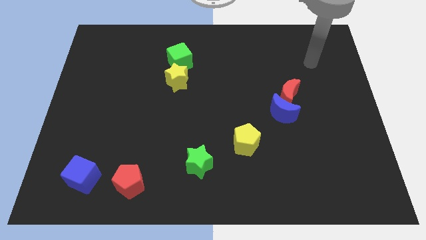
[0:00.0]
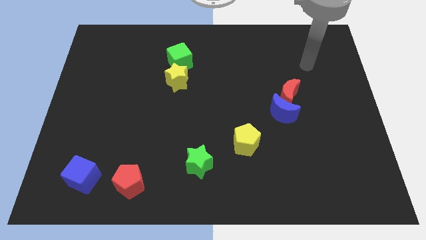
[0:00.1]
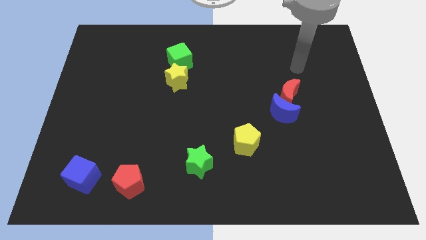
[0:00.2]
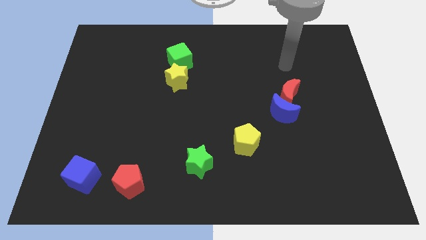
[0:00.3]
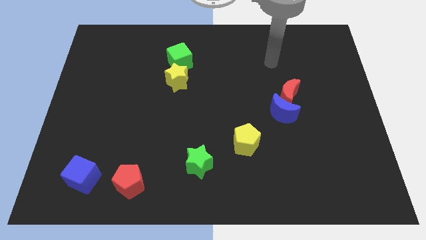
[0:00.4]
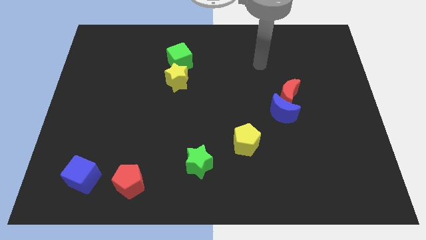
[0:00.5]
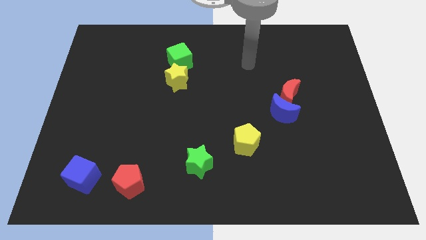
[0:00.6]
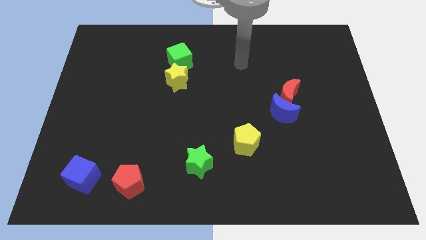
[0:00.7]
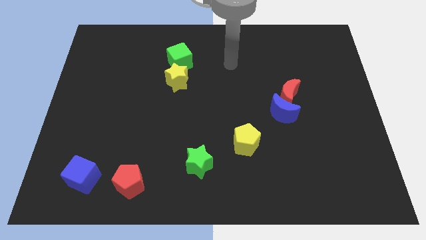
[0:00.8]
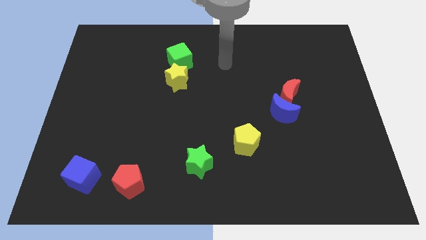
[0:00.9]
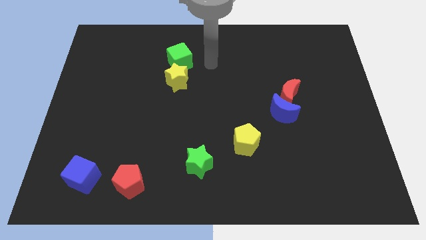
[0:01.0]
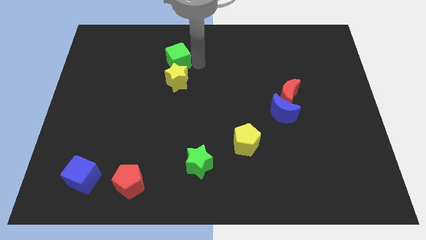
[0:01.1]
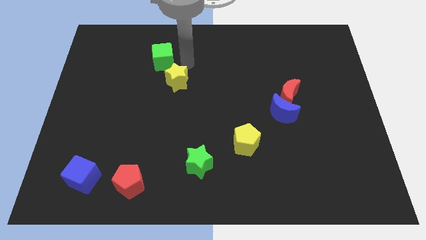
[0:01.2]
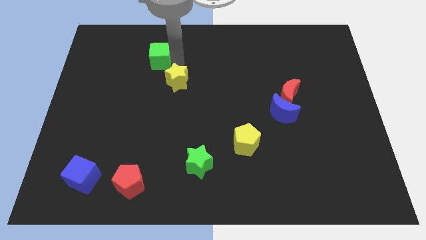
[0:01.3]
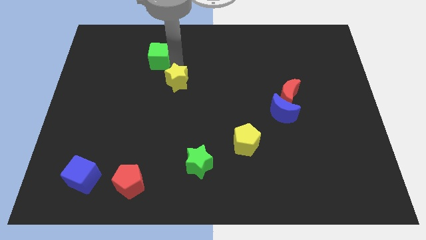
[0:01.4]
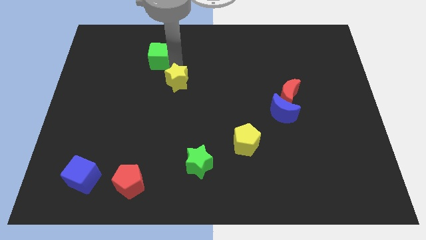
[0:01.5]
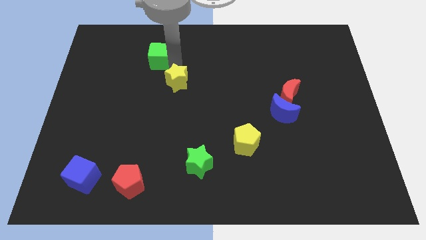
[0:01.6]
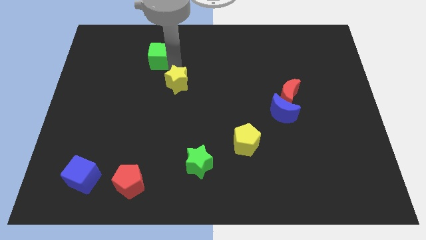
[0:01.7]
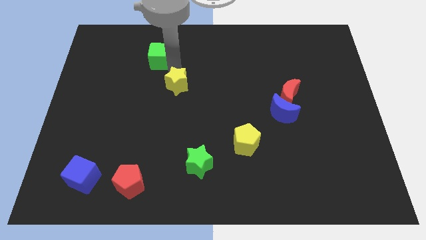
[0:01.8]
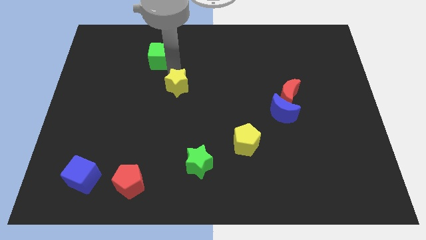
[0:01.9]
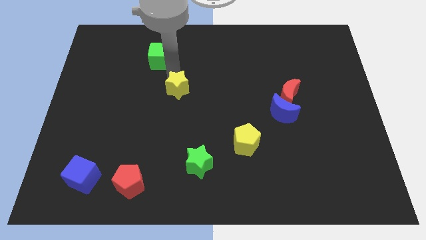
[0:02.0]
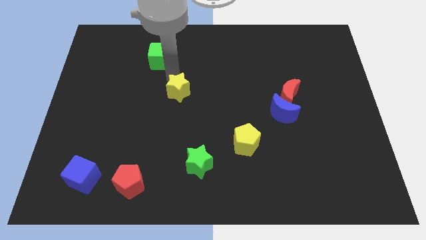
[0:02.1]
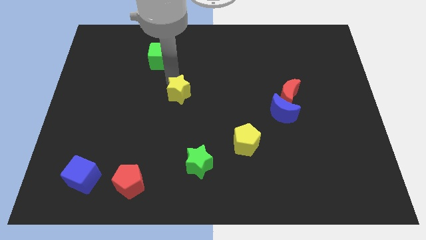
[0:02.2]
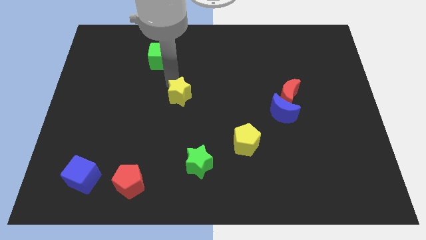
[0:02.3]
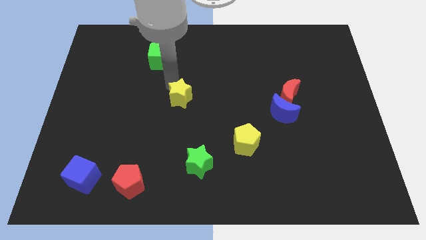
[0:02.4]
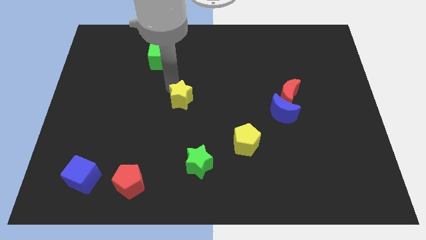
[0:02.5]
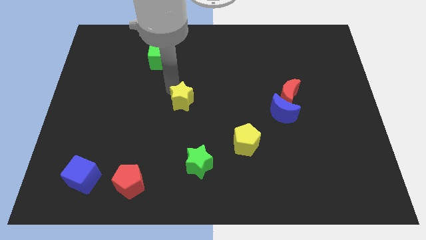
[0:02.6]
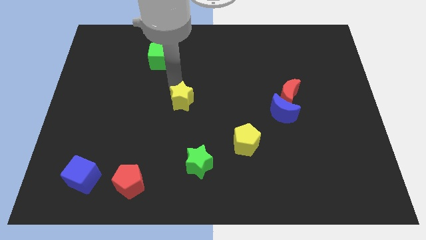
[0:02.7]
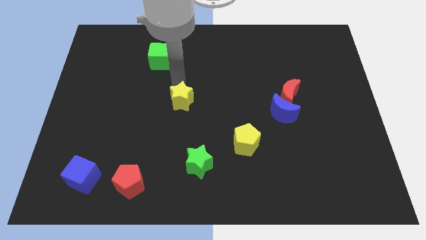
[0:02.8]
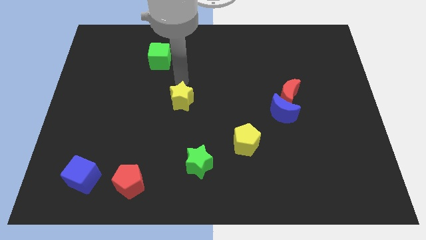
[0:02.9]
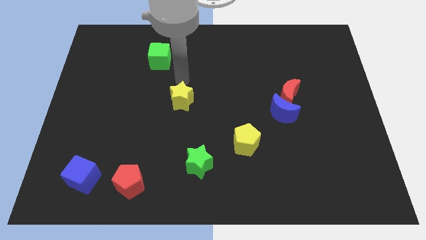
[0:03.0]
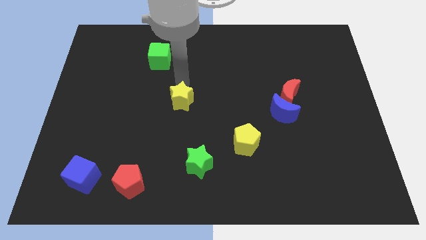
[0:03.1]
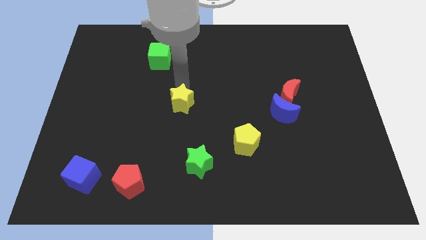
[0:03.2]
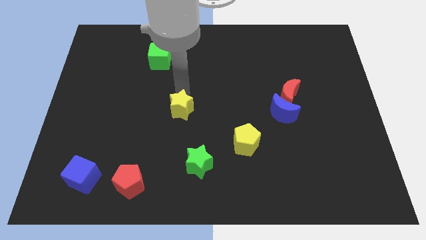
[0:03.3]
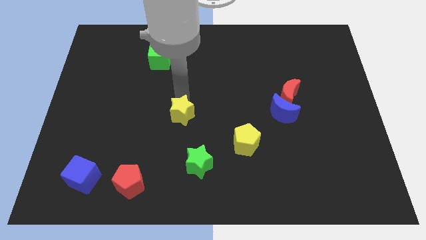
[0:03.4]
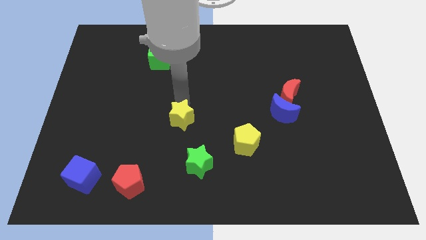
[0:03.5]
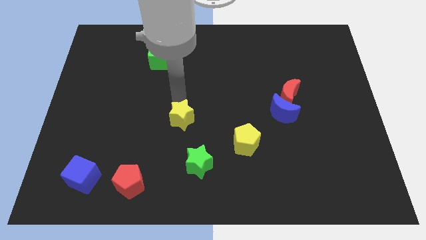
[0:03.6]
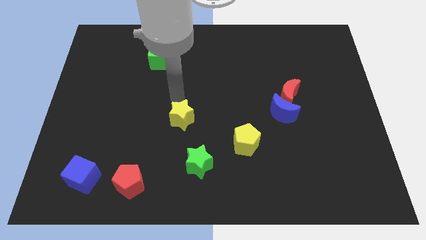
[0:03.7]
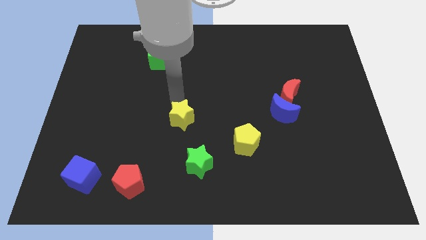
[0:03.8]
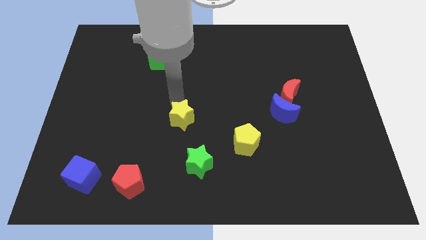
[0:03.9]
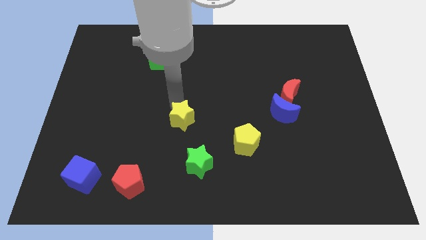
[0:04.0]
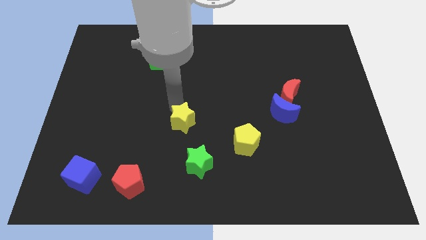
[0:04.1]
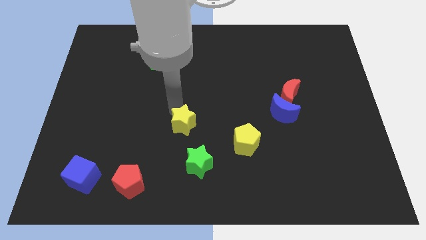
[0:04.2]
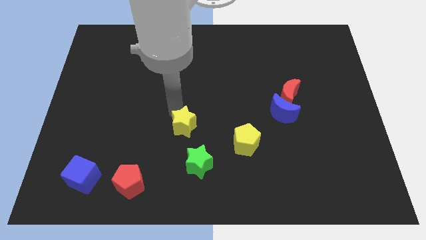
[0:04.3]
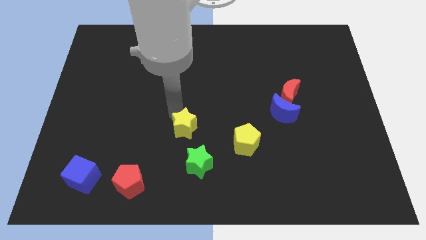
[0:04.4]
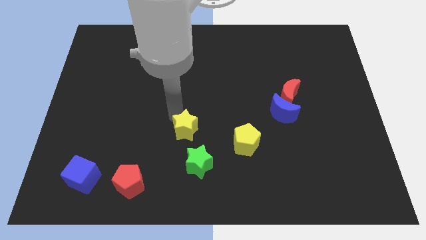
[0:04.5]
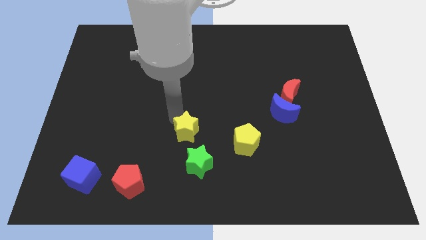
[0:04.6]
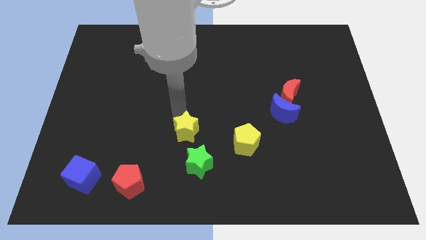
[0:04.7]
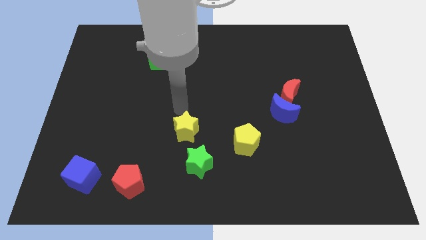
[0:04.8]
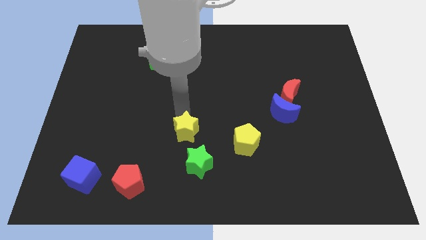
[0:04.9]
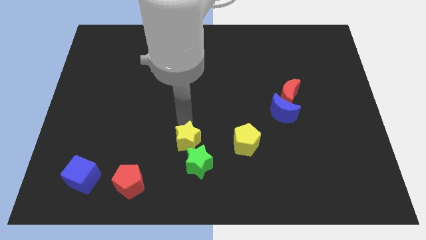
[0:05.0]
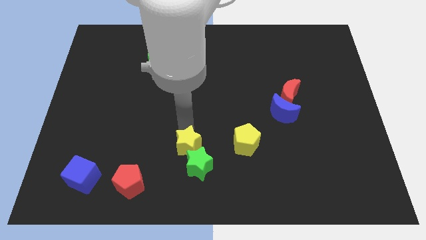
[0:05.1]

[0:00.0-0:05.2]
push the yellow star next to the green star

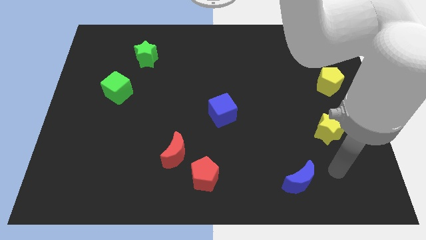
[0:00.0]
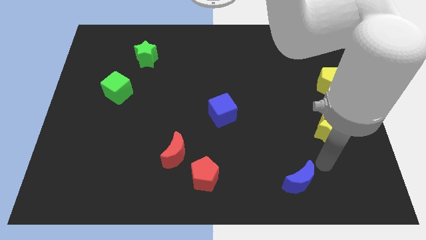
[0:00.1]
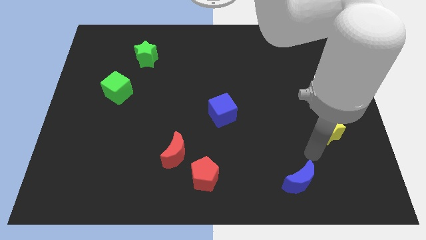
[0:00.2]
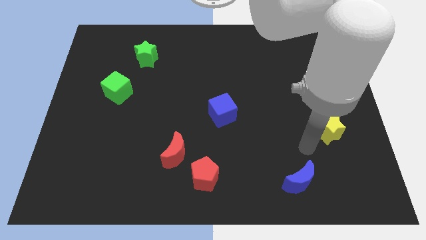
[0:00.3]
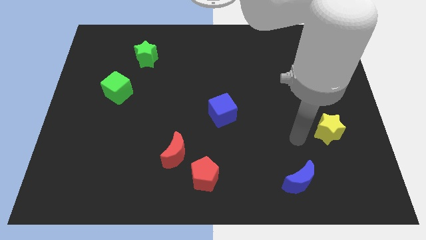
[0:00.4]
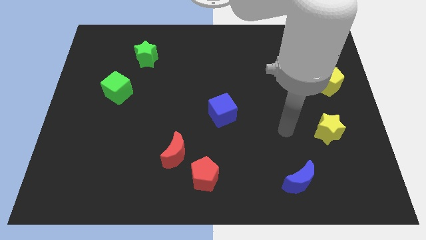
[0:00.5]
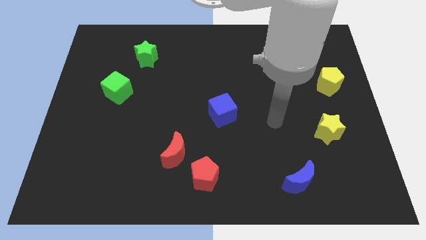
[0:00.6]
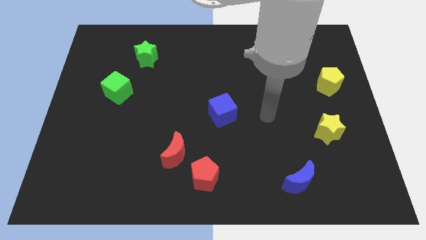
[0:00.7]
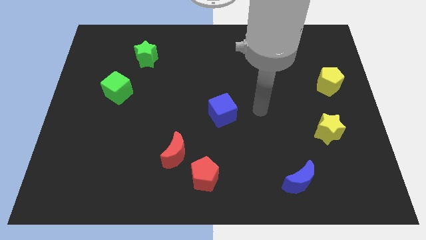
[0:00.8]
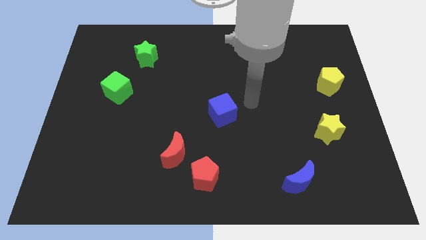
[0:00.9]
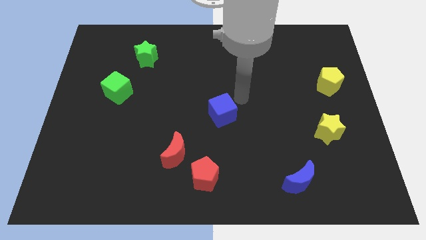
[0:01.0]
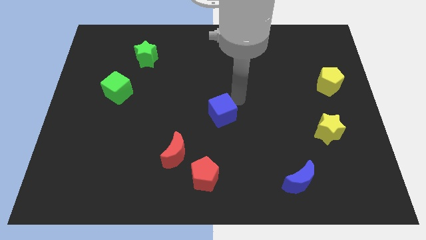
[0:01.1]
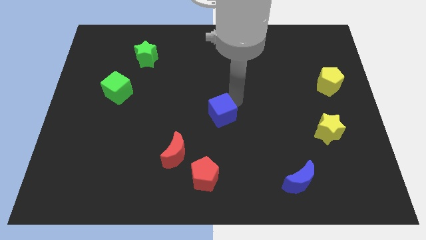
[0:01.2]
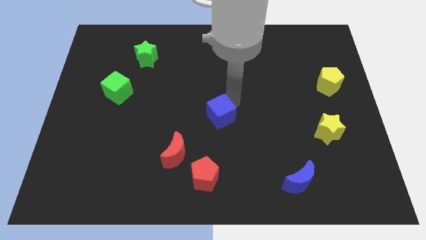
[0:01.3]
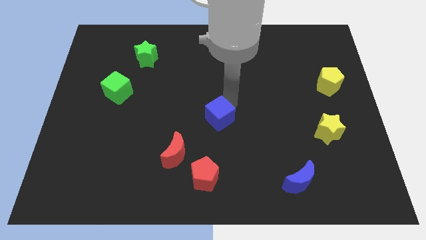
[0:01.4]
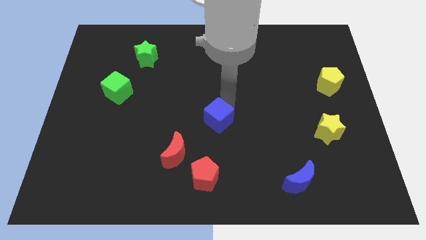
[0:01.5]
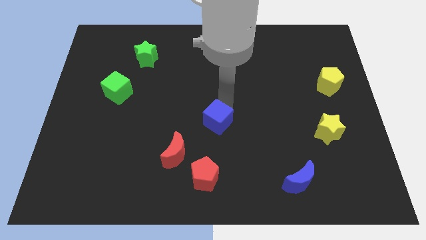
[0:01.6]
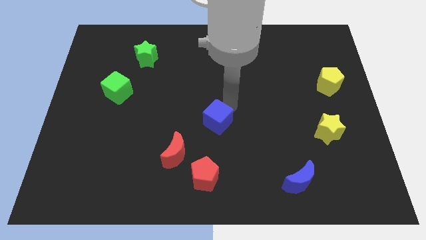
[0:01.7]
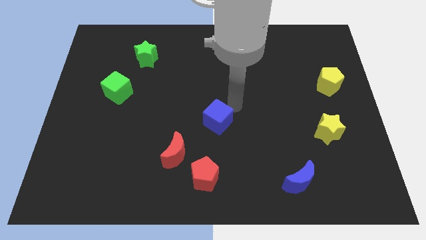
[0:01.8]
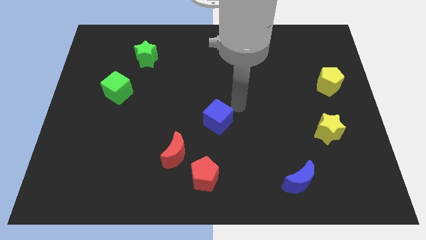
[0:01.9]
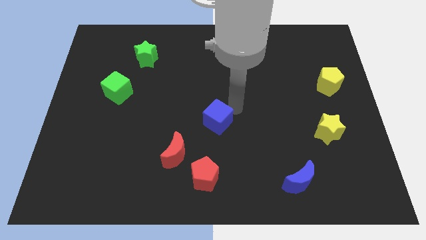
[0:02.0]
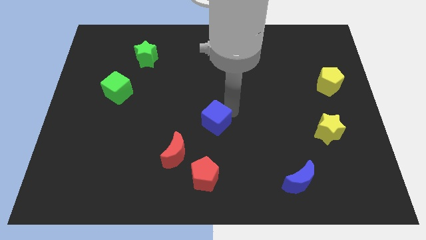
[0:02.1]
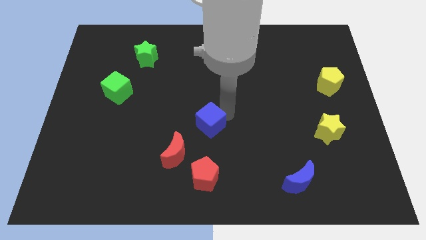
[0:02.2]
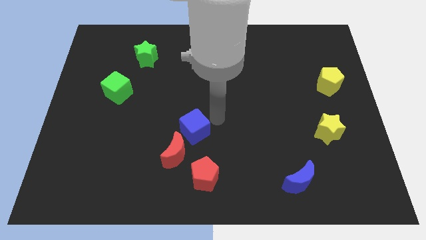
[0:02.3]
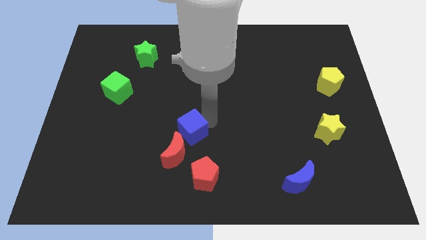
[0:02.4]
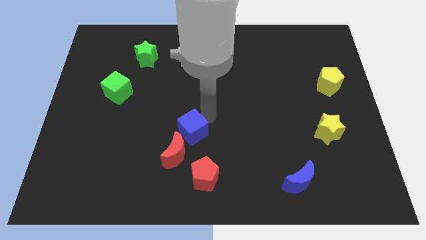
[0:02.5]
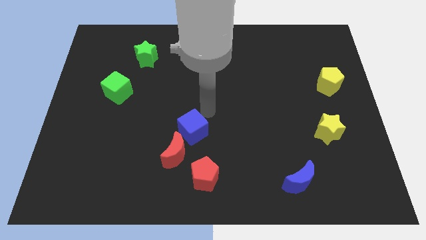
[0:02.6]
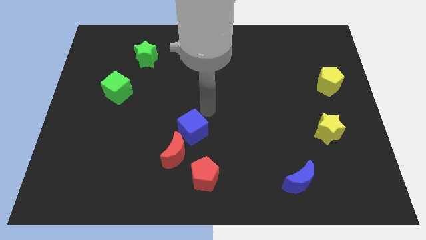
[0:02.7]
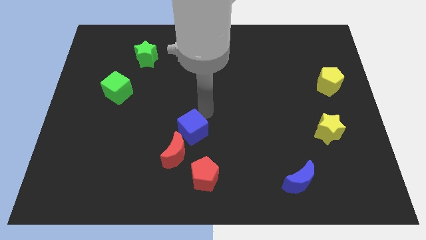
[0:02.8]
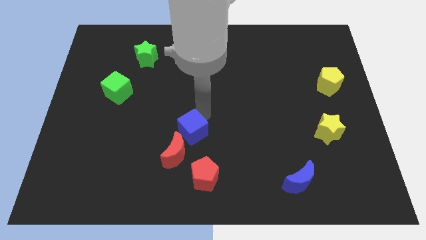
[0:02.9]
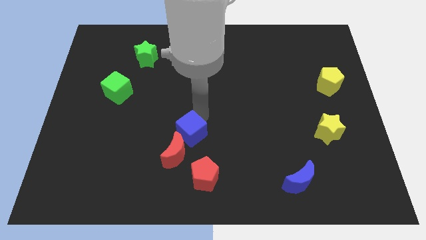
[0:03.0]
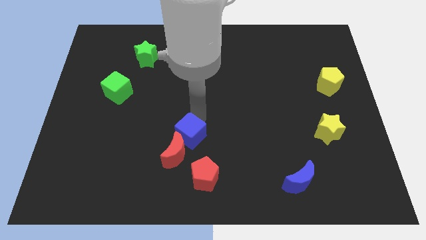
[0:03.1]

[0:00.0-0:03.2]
move the blue cube to the red moon
